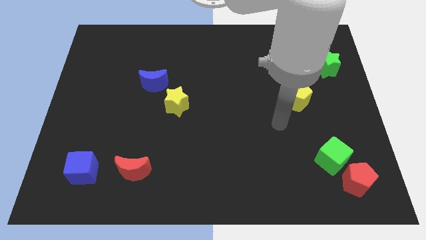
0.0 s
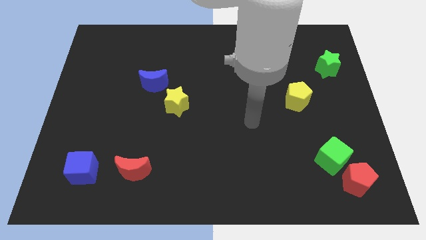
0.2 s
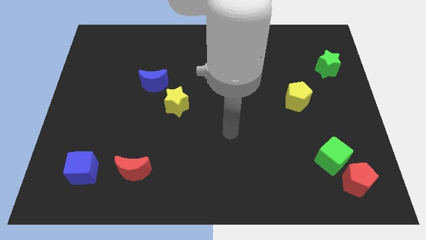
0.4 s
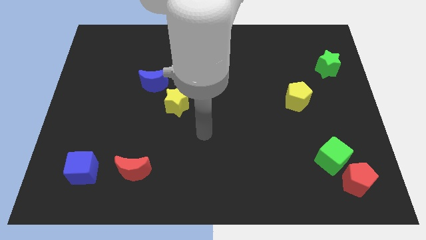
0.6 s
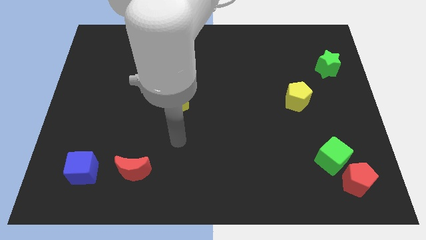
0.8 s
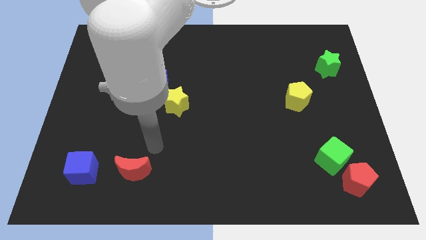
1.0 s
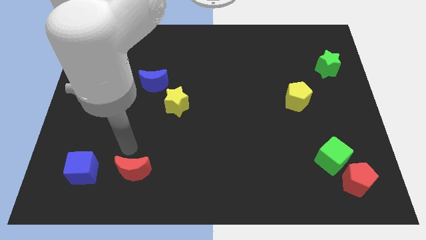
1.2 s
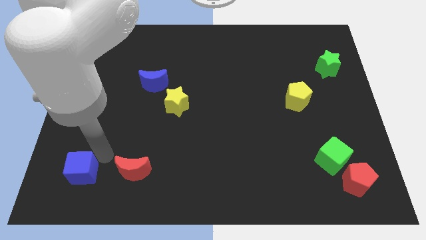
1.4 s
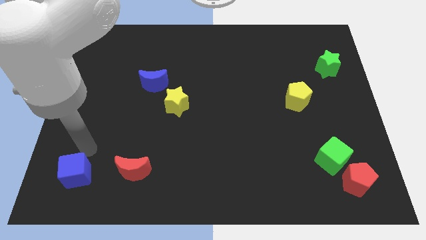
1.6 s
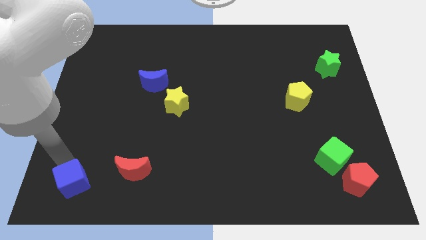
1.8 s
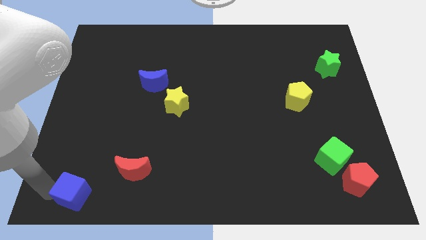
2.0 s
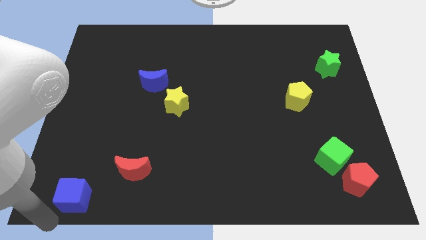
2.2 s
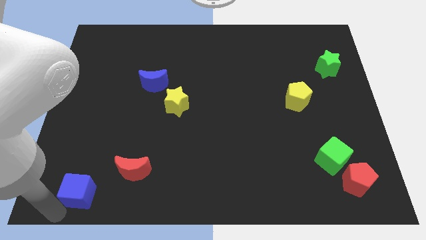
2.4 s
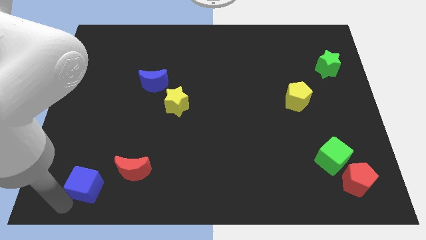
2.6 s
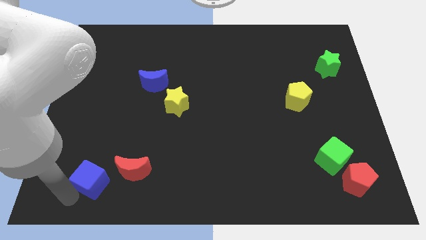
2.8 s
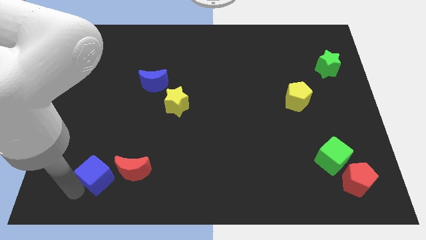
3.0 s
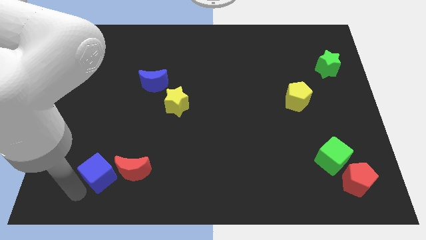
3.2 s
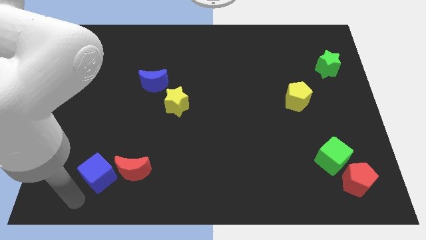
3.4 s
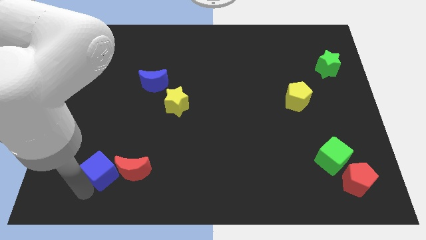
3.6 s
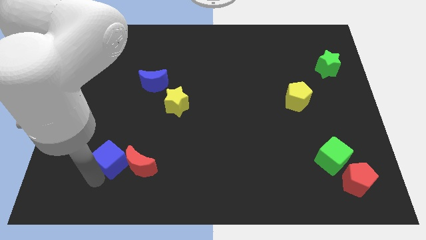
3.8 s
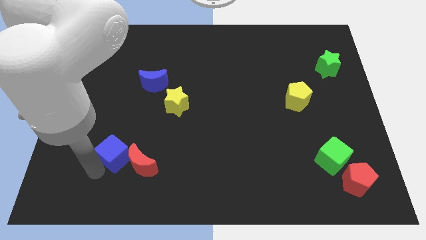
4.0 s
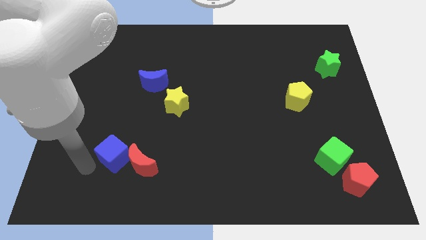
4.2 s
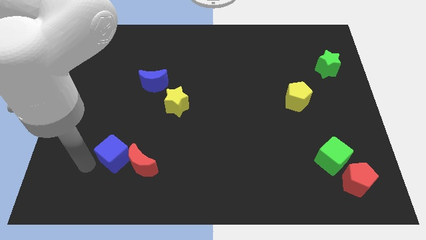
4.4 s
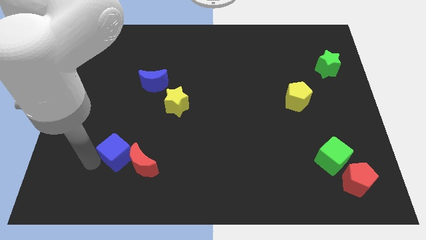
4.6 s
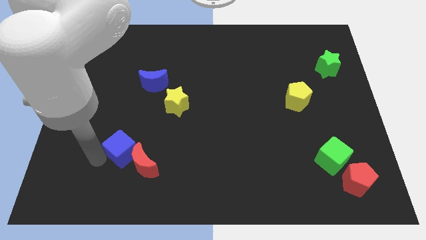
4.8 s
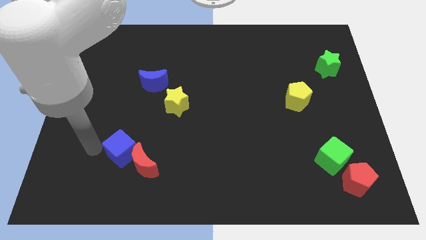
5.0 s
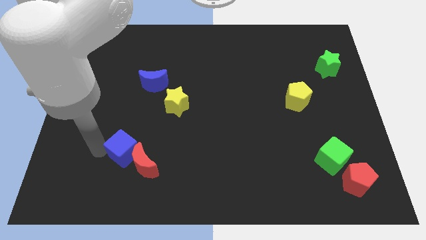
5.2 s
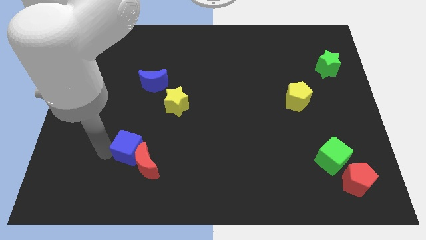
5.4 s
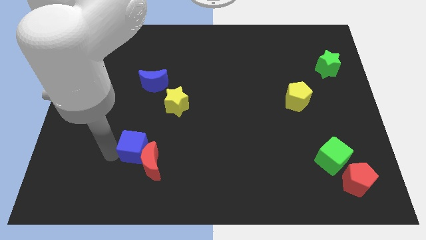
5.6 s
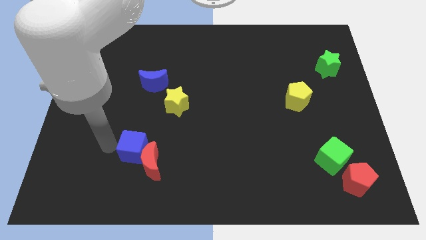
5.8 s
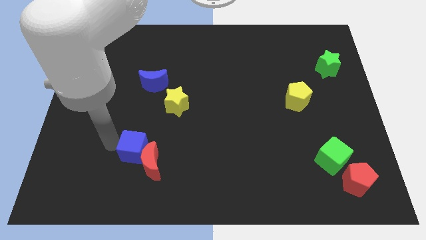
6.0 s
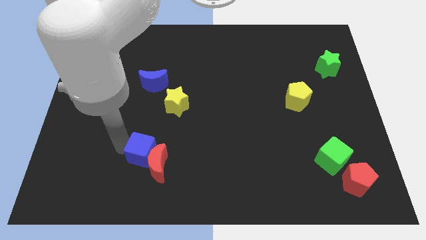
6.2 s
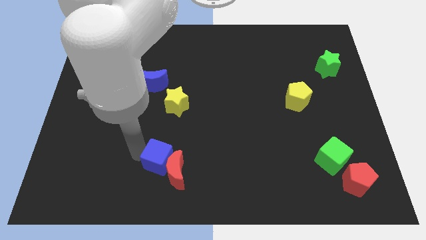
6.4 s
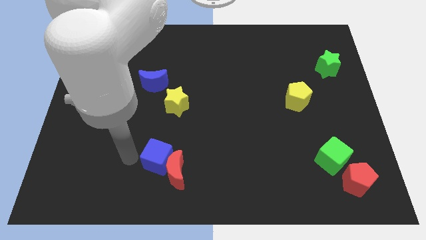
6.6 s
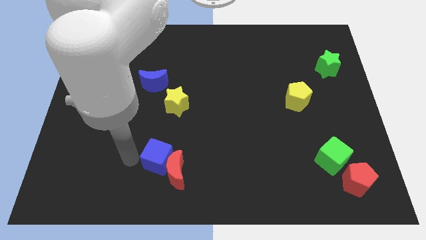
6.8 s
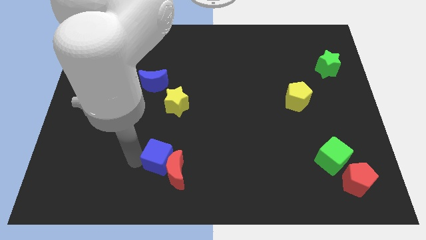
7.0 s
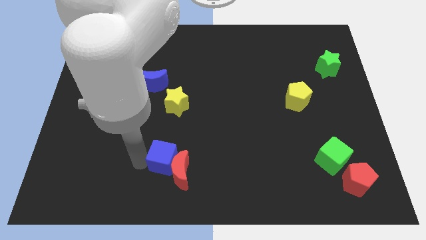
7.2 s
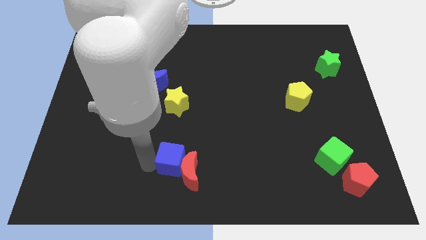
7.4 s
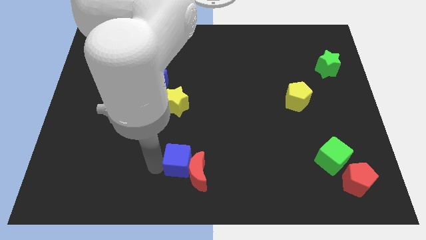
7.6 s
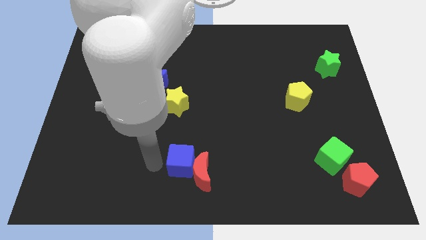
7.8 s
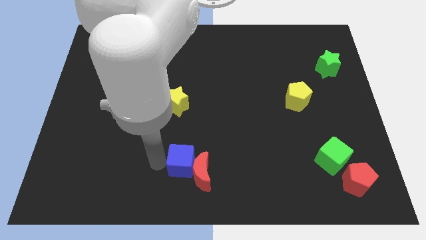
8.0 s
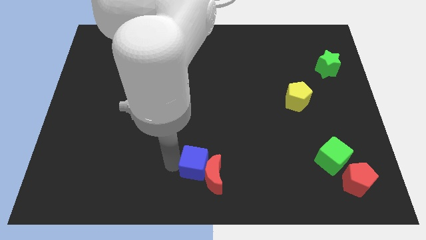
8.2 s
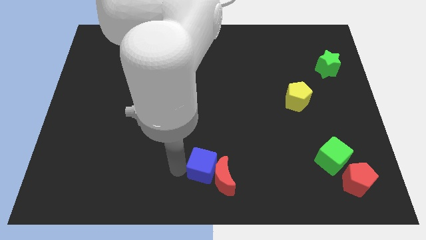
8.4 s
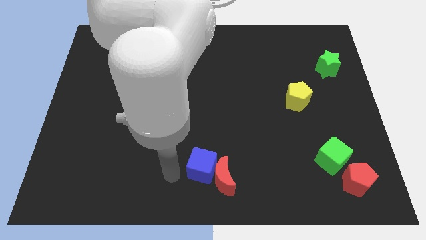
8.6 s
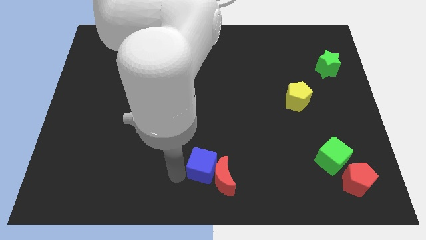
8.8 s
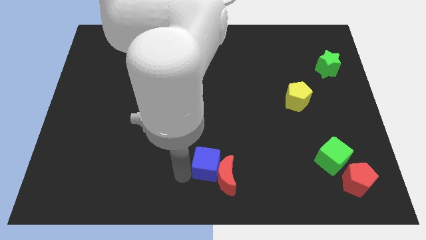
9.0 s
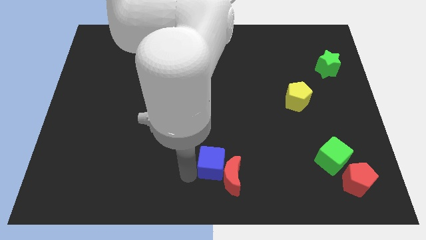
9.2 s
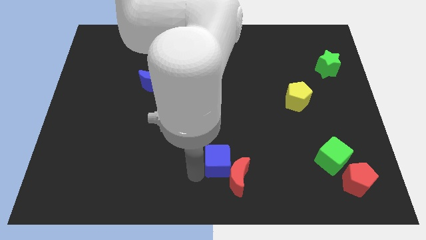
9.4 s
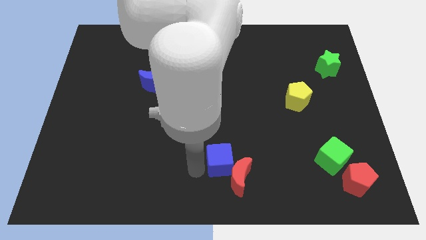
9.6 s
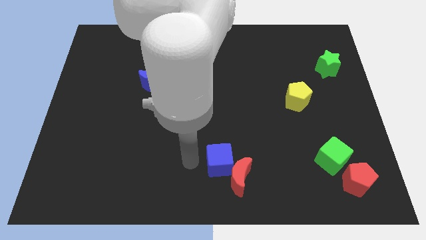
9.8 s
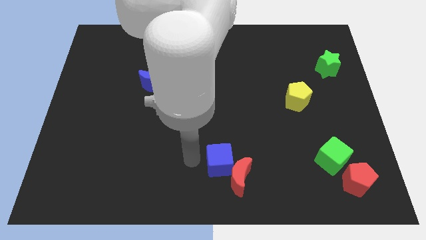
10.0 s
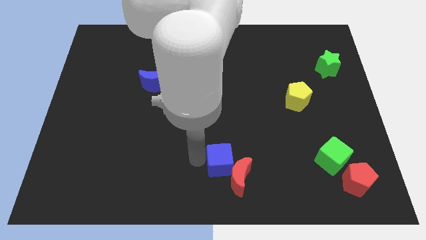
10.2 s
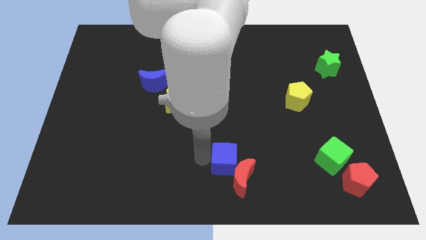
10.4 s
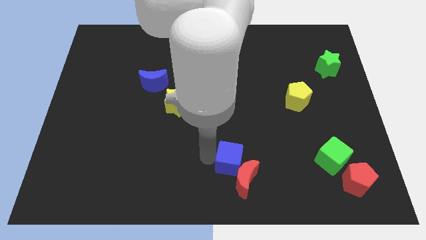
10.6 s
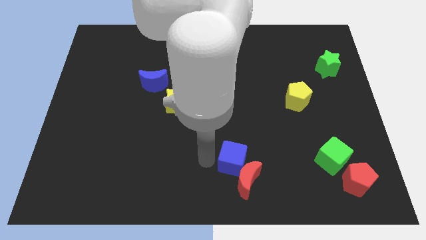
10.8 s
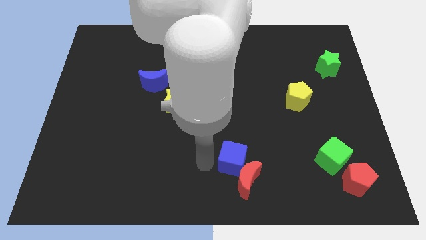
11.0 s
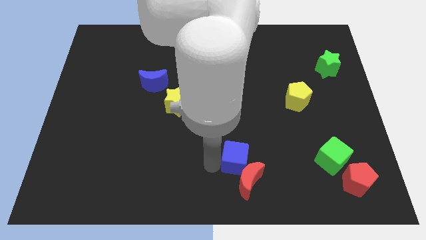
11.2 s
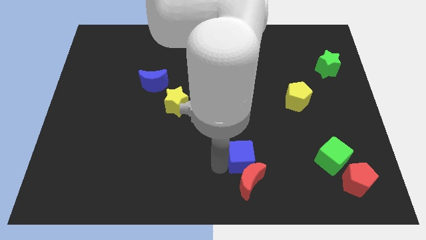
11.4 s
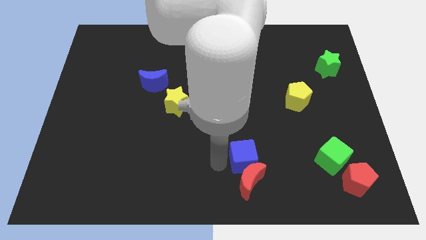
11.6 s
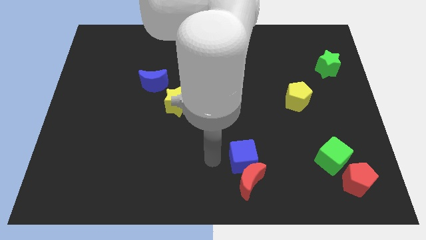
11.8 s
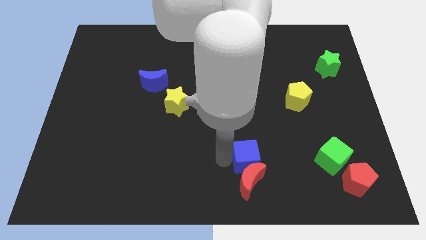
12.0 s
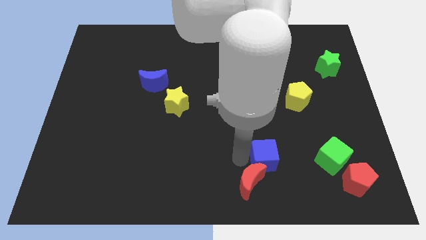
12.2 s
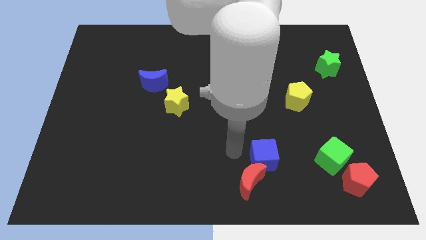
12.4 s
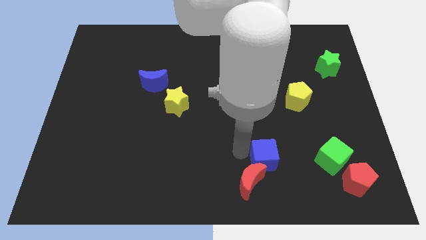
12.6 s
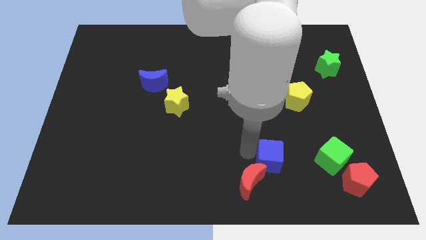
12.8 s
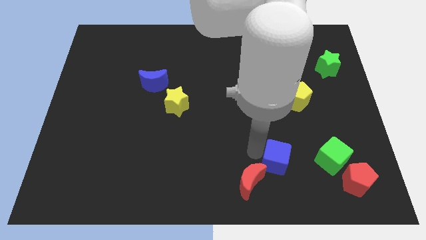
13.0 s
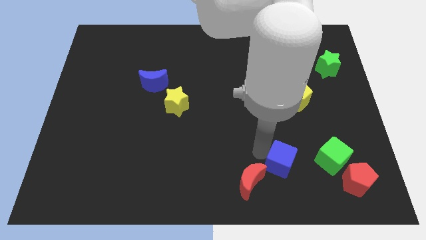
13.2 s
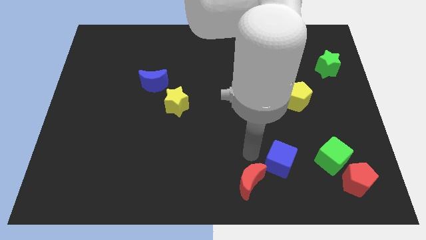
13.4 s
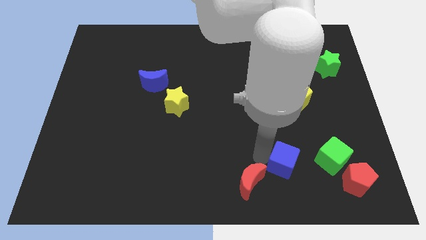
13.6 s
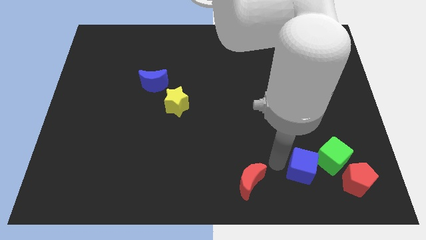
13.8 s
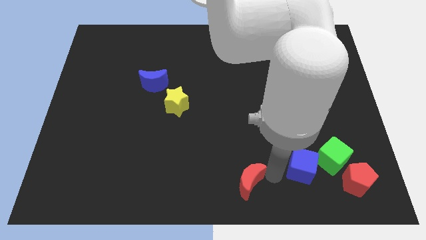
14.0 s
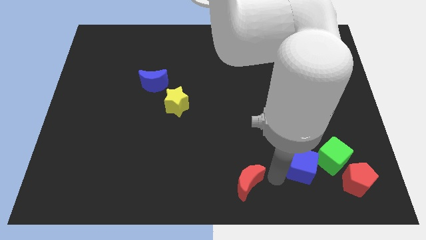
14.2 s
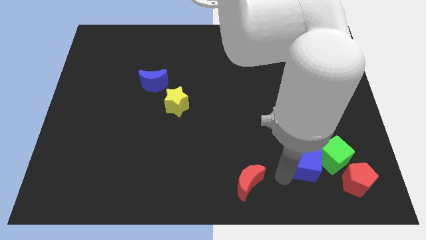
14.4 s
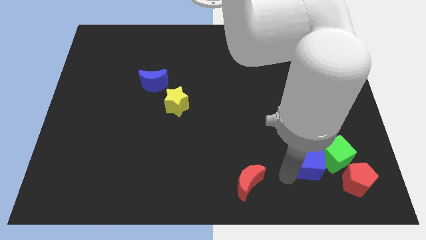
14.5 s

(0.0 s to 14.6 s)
move the blue cube close to the green cube
